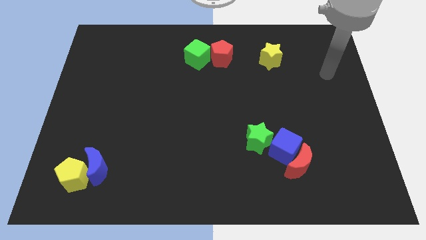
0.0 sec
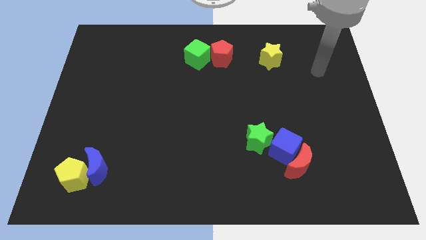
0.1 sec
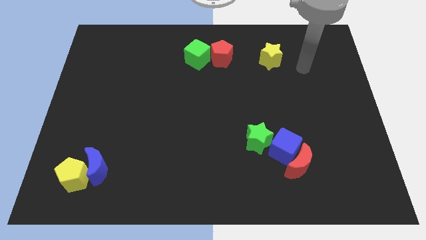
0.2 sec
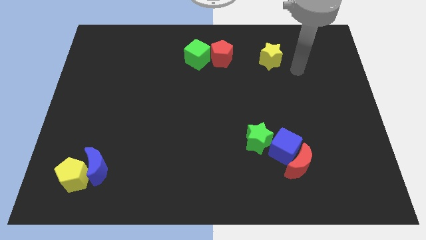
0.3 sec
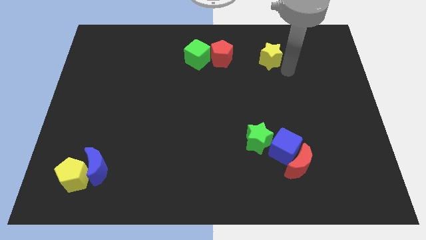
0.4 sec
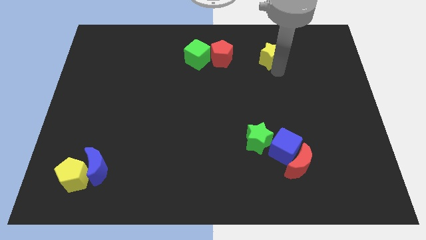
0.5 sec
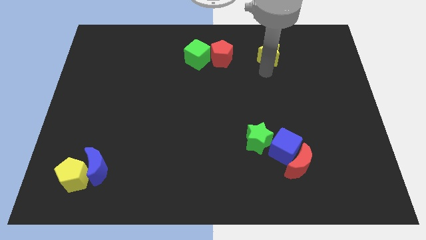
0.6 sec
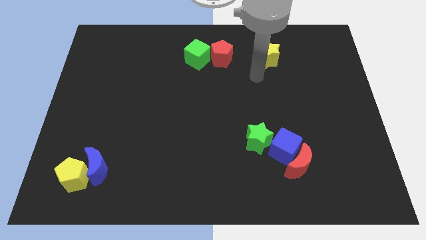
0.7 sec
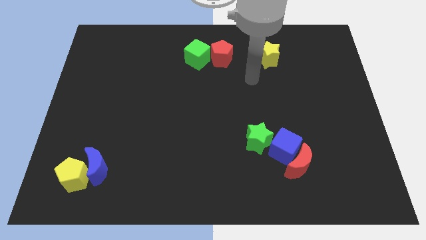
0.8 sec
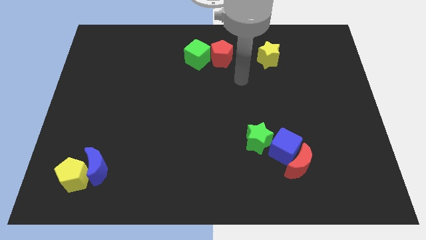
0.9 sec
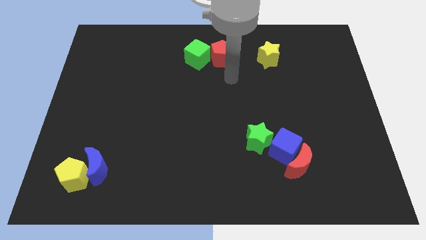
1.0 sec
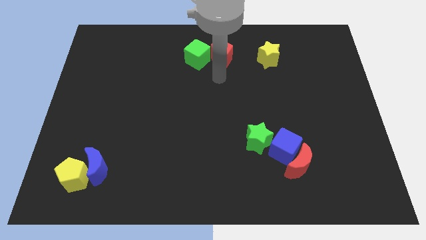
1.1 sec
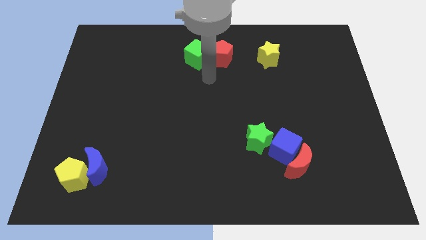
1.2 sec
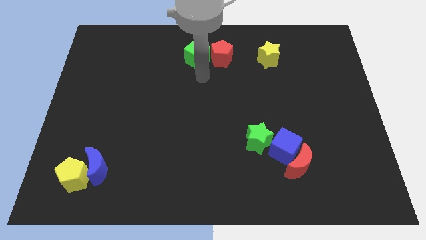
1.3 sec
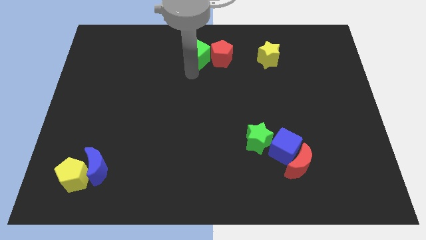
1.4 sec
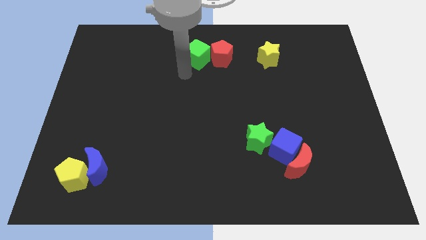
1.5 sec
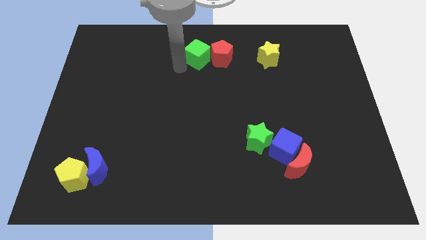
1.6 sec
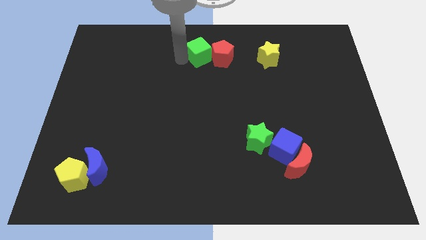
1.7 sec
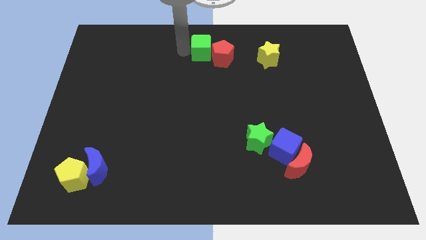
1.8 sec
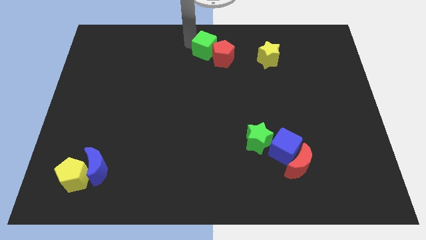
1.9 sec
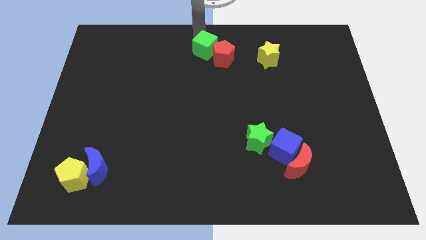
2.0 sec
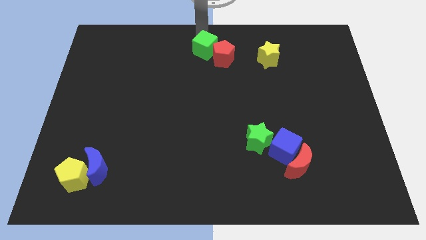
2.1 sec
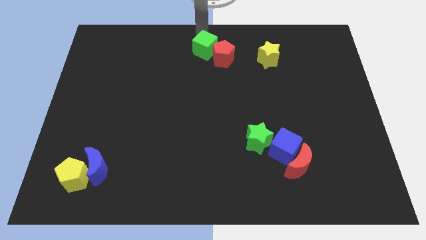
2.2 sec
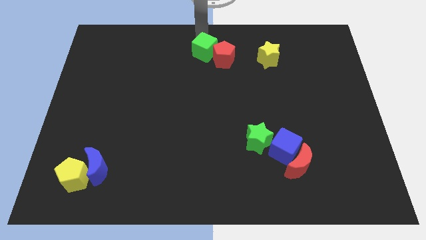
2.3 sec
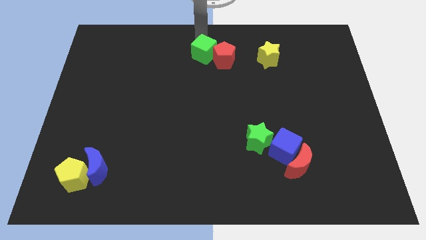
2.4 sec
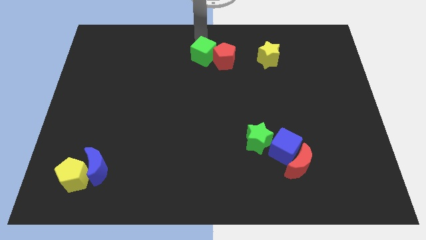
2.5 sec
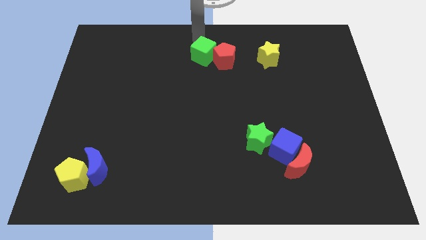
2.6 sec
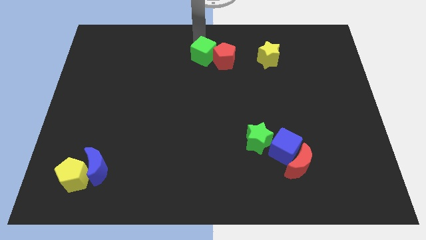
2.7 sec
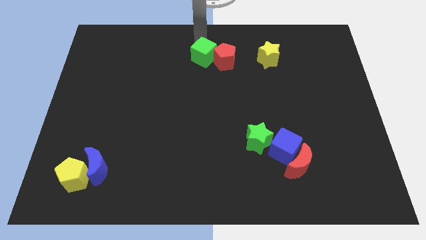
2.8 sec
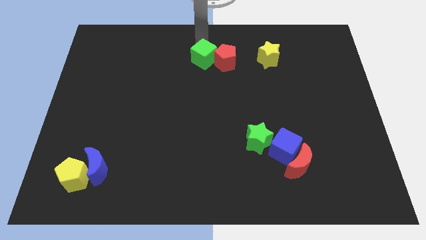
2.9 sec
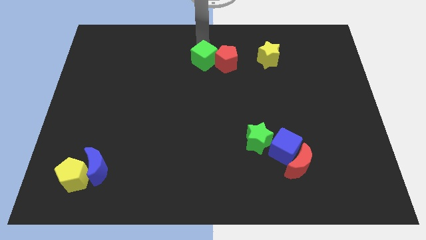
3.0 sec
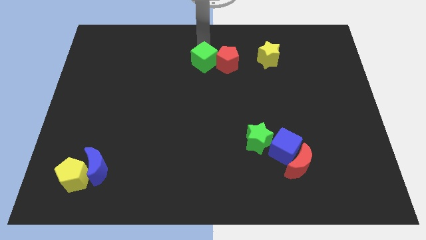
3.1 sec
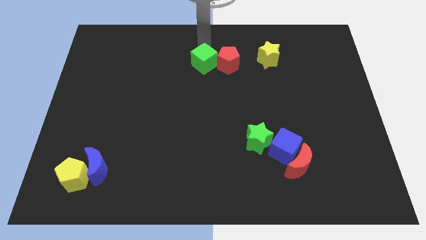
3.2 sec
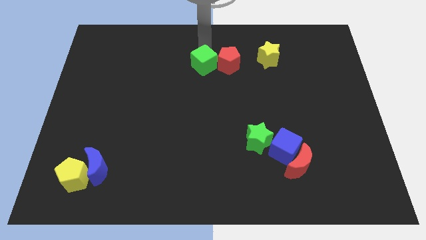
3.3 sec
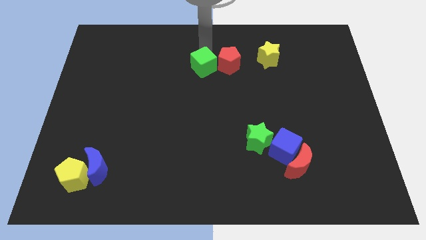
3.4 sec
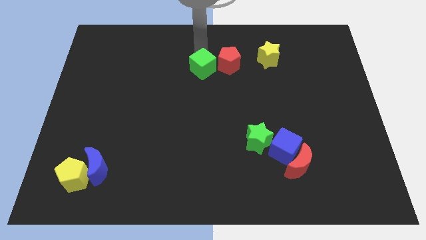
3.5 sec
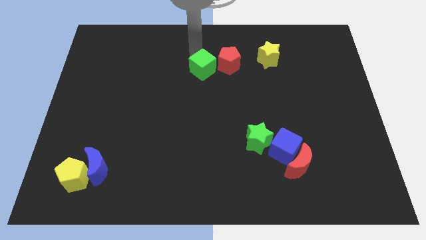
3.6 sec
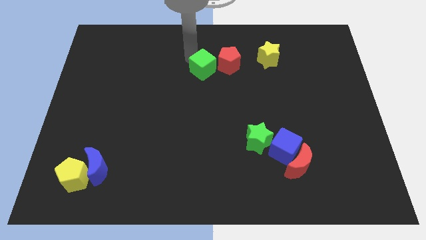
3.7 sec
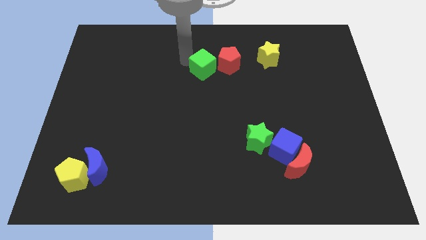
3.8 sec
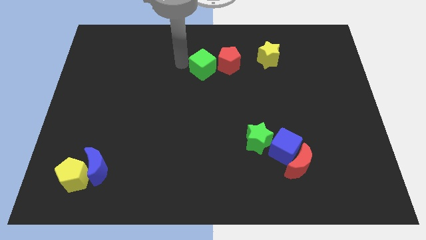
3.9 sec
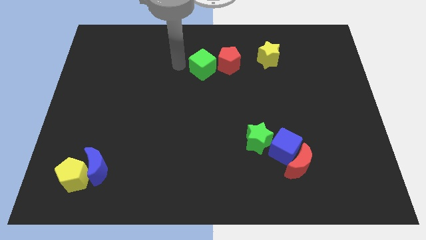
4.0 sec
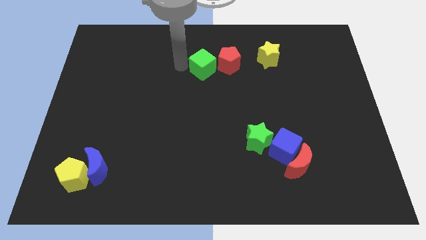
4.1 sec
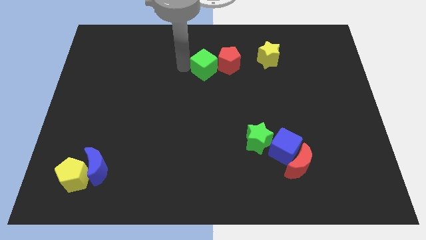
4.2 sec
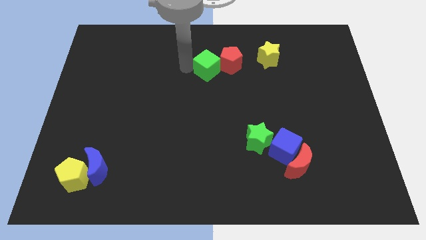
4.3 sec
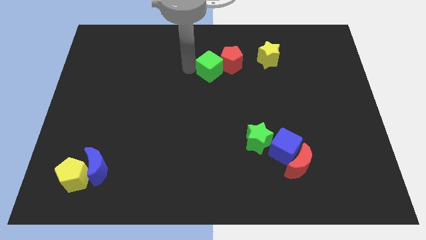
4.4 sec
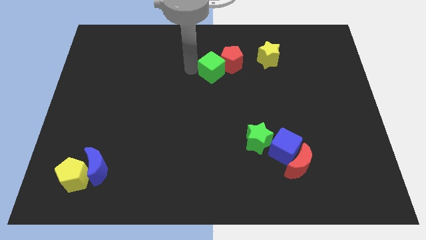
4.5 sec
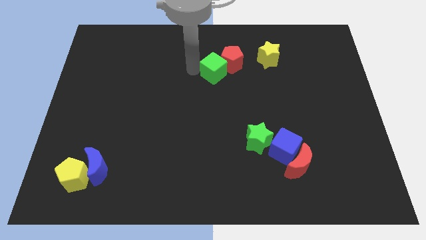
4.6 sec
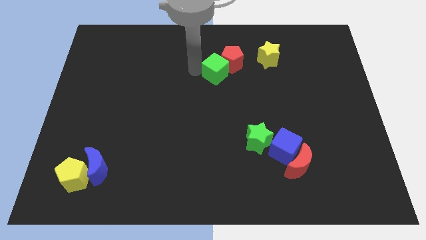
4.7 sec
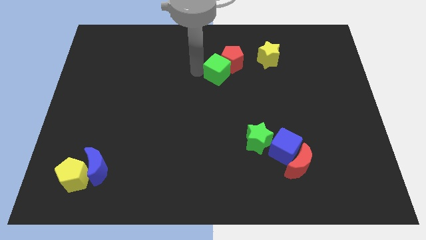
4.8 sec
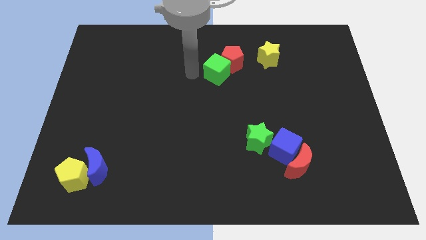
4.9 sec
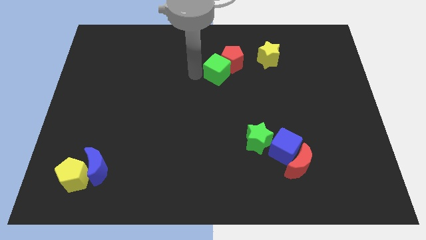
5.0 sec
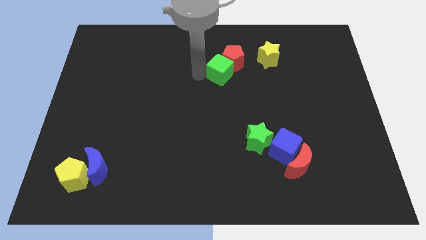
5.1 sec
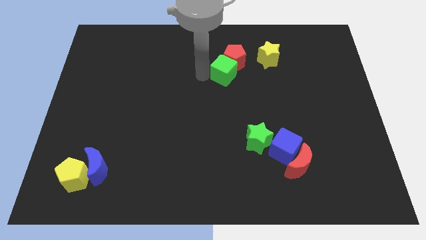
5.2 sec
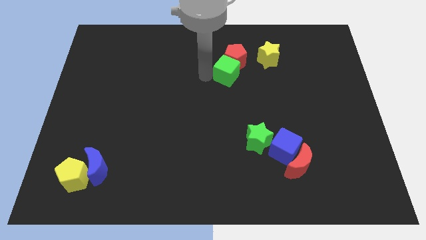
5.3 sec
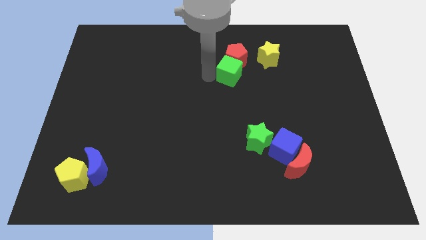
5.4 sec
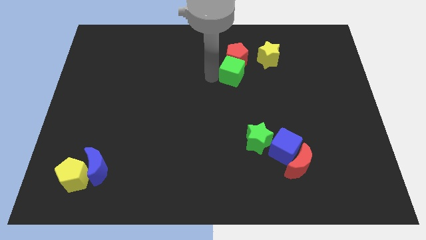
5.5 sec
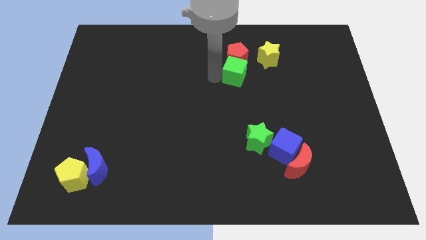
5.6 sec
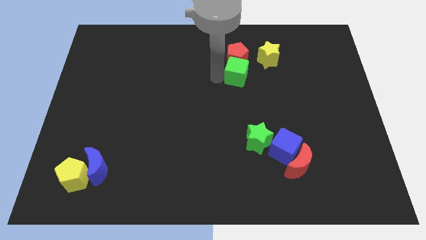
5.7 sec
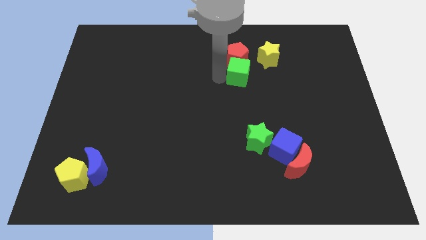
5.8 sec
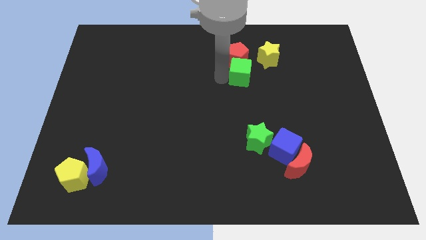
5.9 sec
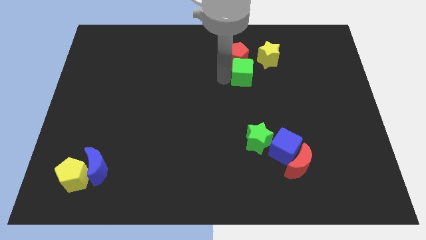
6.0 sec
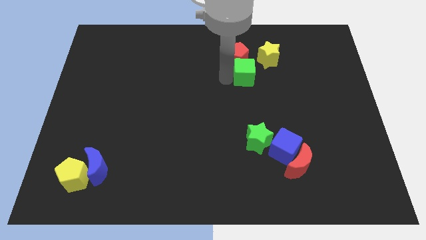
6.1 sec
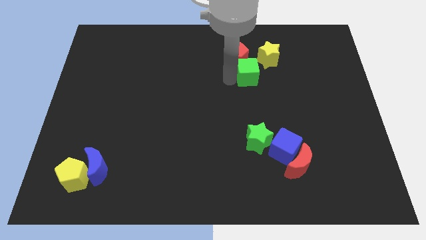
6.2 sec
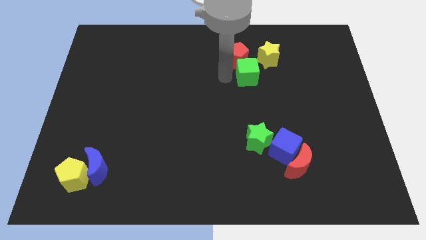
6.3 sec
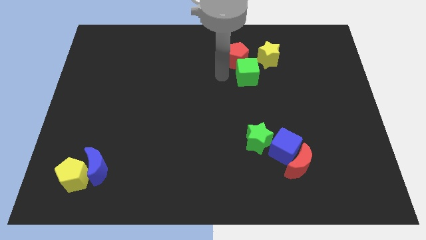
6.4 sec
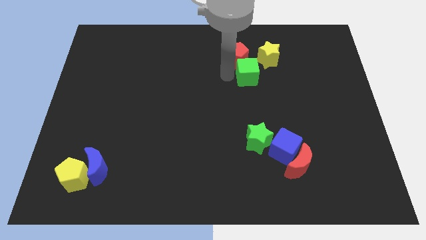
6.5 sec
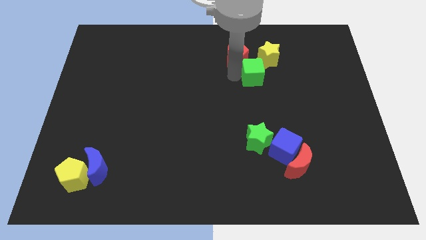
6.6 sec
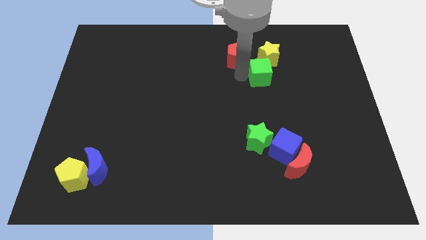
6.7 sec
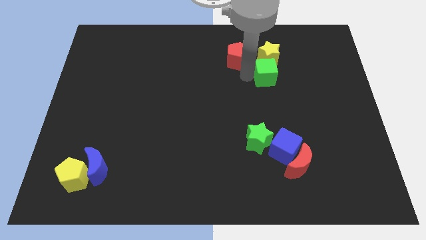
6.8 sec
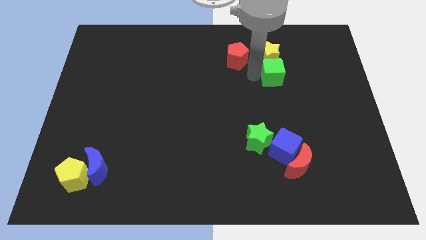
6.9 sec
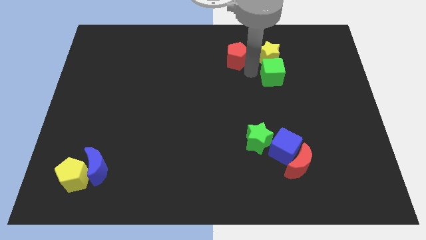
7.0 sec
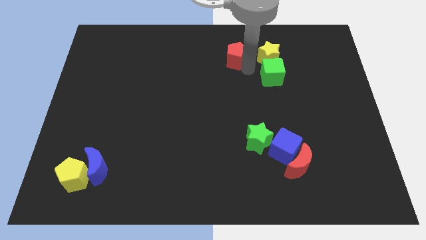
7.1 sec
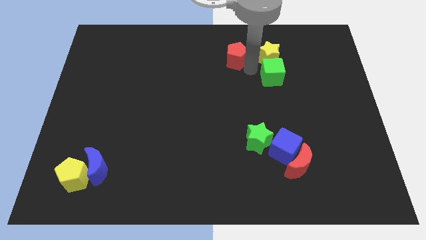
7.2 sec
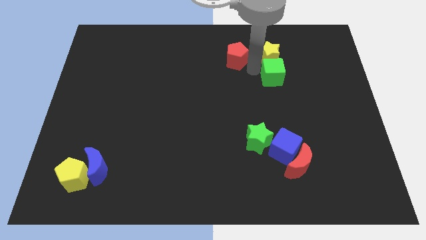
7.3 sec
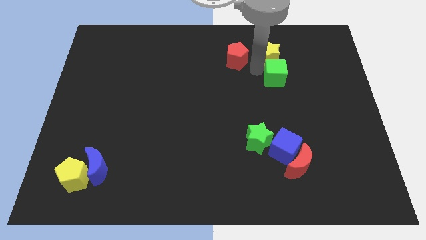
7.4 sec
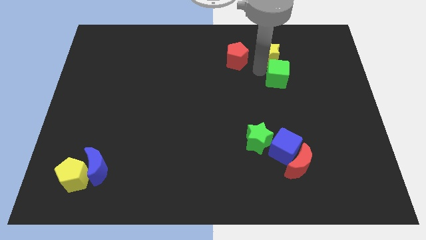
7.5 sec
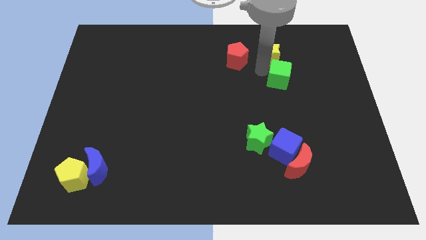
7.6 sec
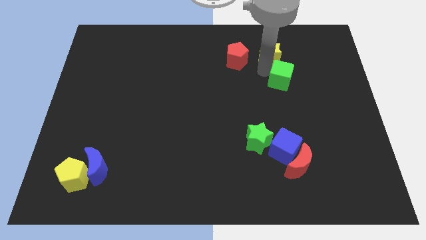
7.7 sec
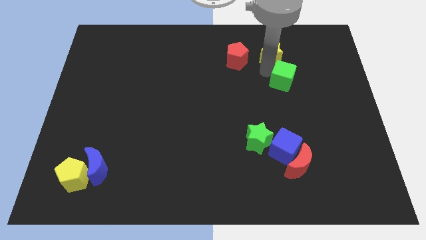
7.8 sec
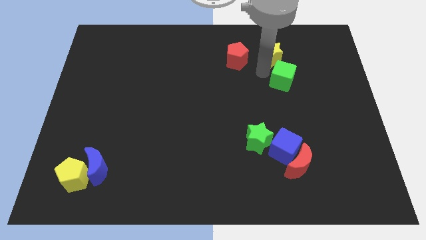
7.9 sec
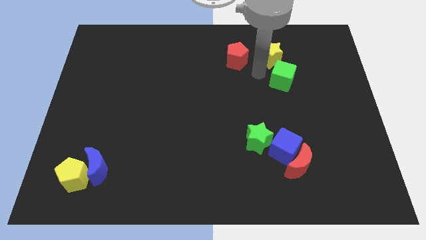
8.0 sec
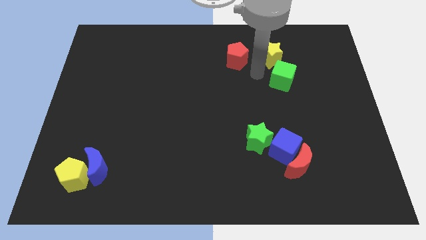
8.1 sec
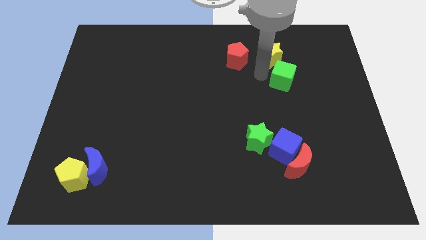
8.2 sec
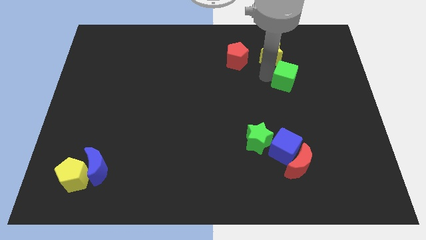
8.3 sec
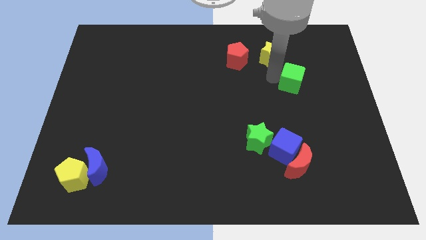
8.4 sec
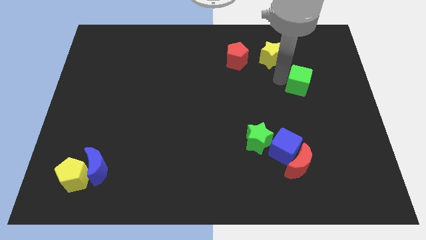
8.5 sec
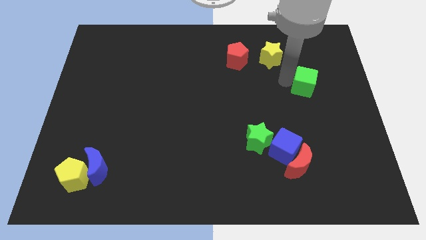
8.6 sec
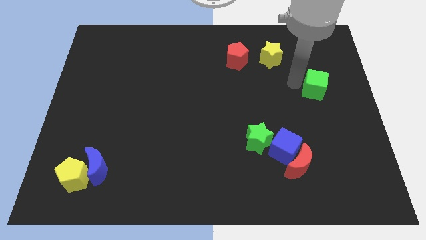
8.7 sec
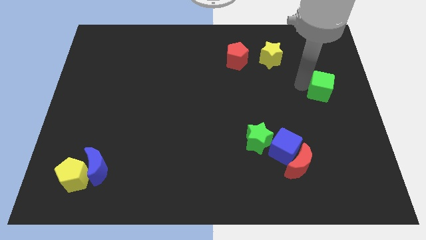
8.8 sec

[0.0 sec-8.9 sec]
slide the green cube to the right side
